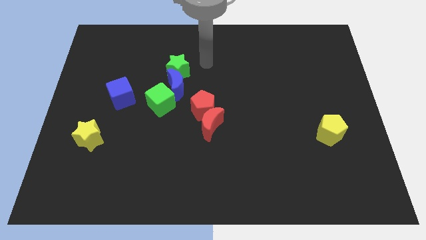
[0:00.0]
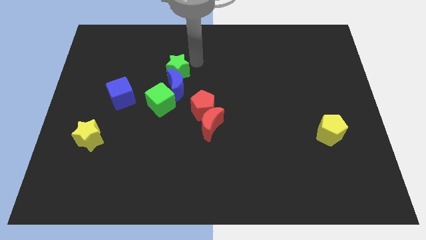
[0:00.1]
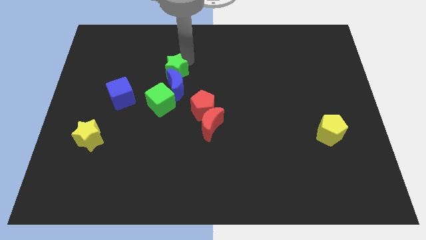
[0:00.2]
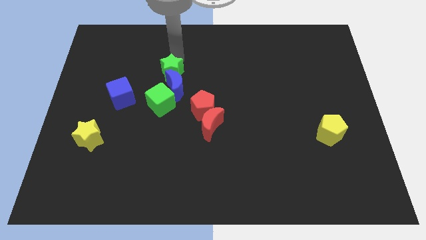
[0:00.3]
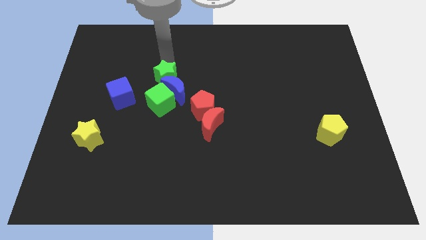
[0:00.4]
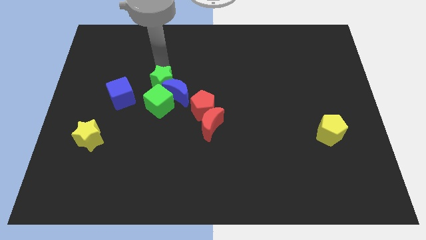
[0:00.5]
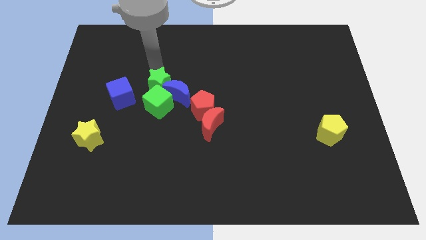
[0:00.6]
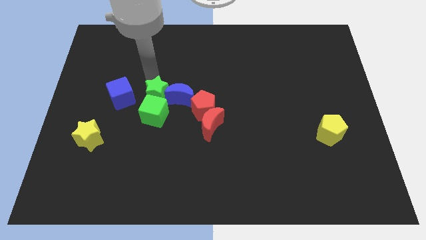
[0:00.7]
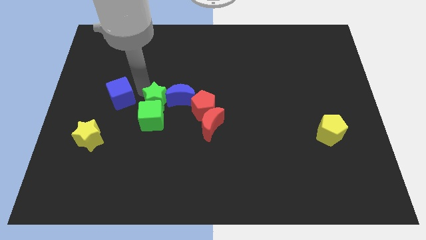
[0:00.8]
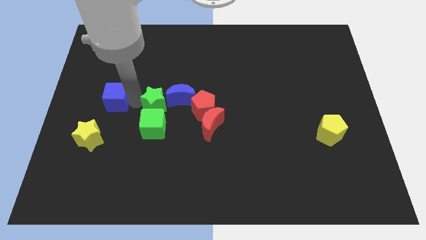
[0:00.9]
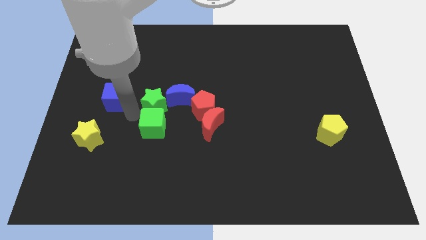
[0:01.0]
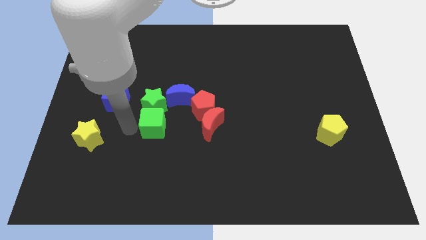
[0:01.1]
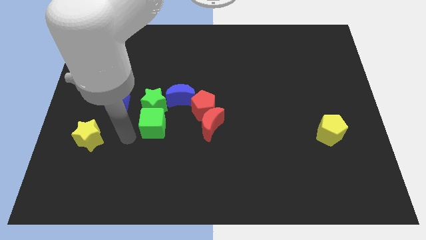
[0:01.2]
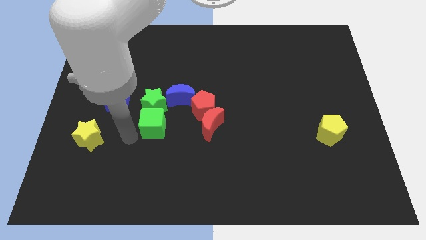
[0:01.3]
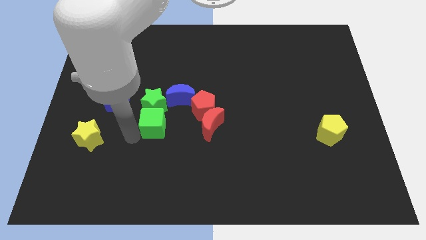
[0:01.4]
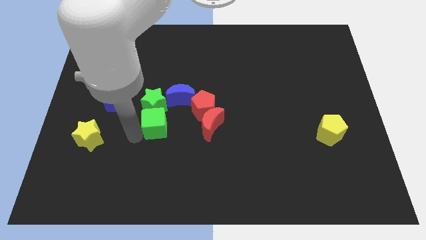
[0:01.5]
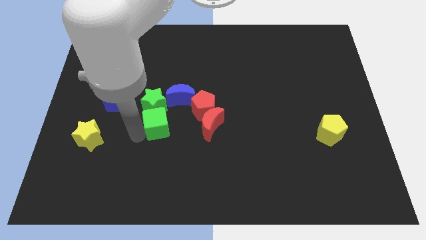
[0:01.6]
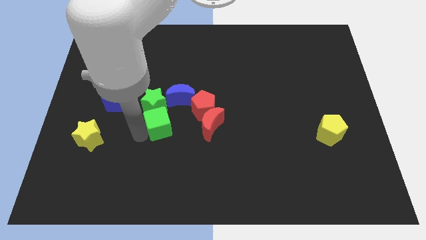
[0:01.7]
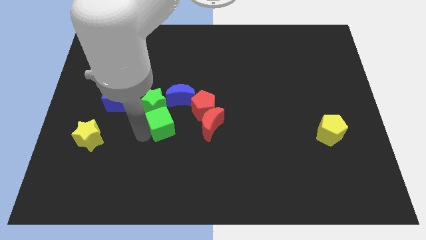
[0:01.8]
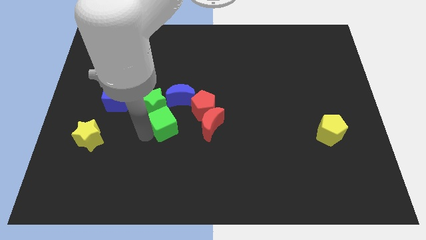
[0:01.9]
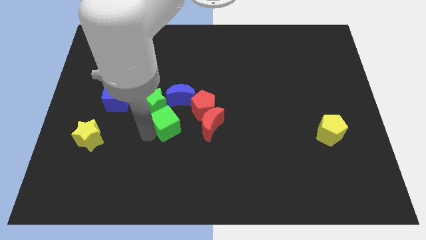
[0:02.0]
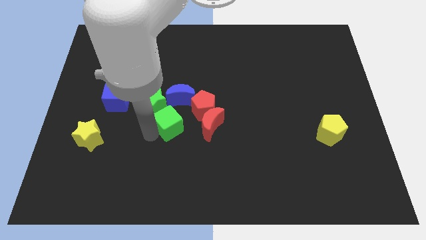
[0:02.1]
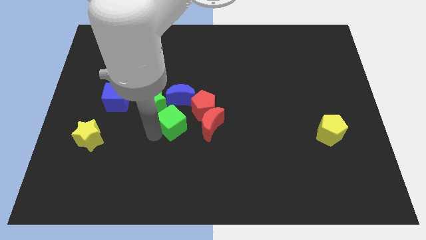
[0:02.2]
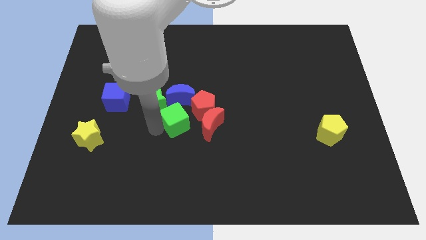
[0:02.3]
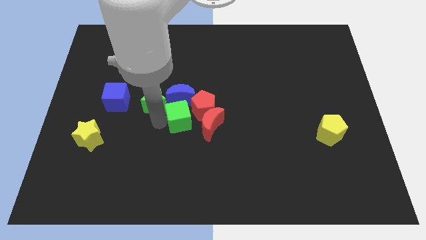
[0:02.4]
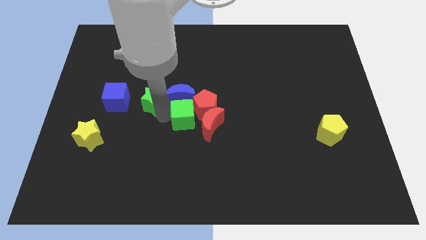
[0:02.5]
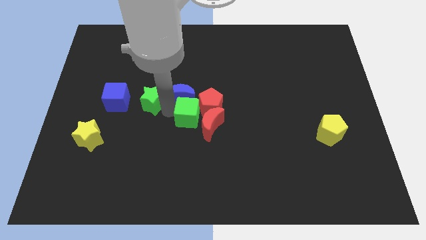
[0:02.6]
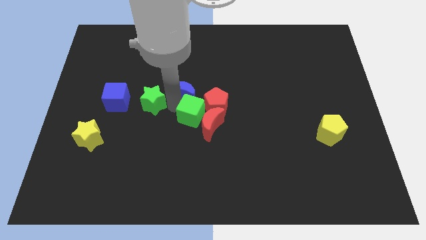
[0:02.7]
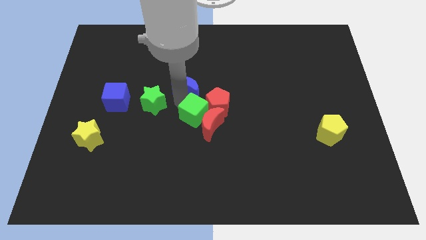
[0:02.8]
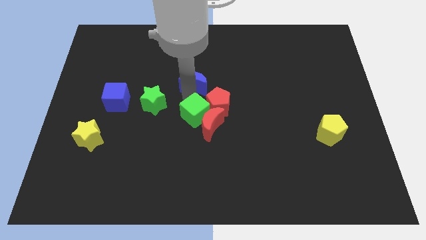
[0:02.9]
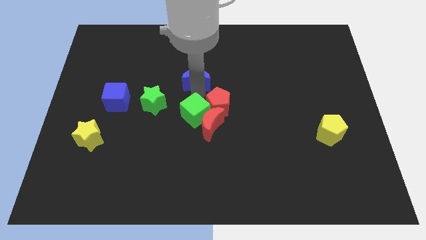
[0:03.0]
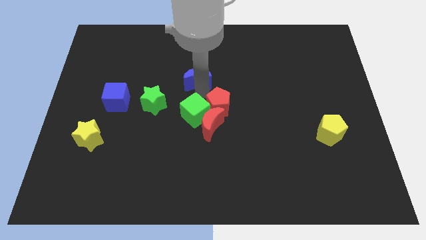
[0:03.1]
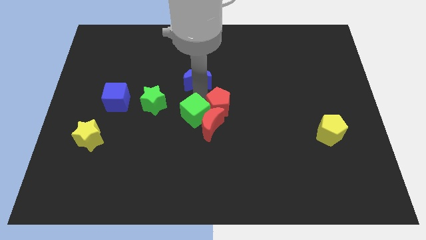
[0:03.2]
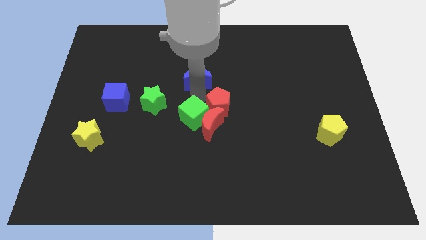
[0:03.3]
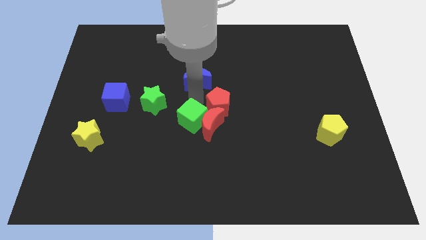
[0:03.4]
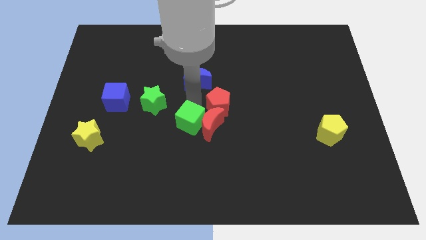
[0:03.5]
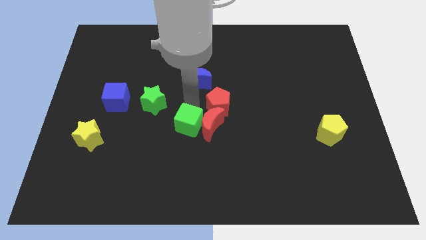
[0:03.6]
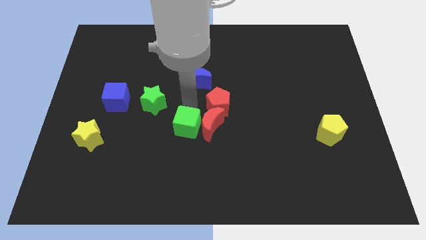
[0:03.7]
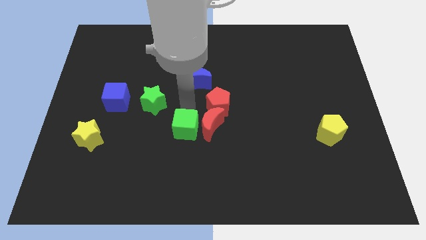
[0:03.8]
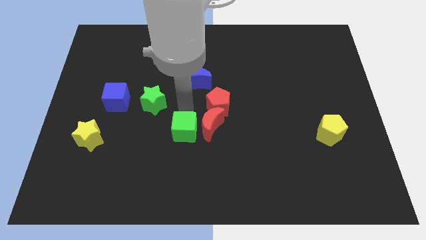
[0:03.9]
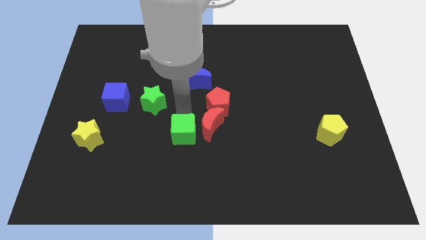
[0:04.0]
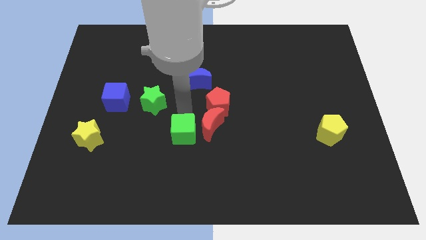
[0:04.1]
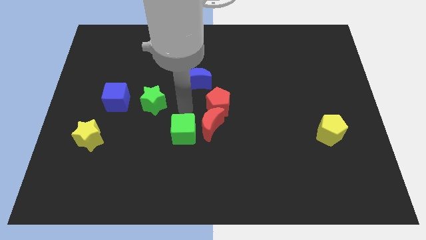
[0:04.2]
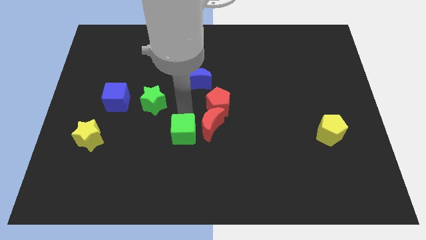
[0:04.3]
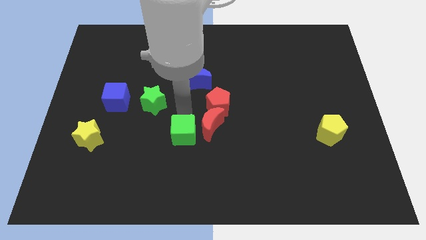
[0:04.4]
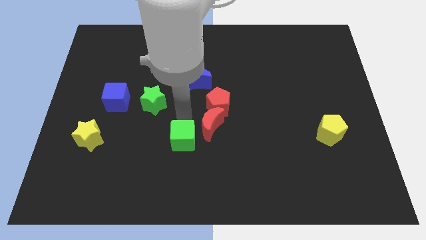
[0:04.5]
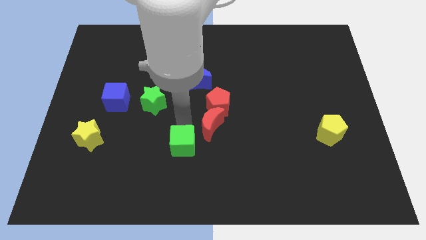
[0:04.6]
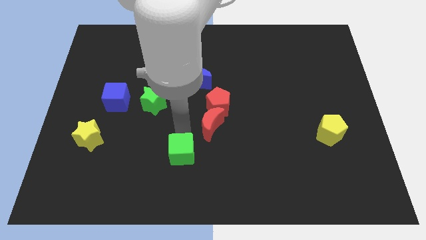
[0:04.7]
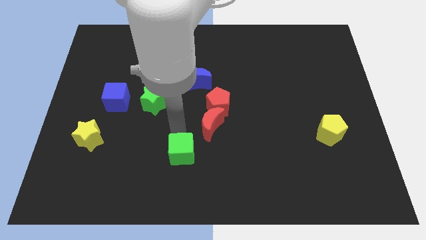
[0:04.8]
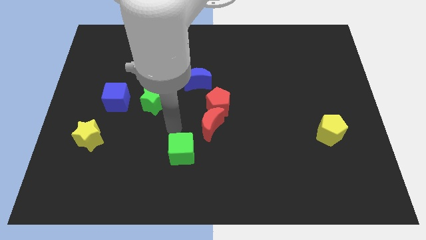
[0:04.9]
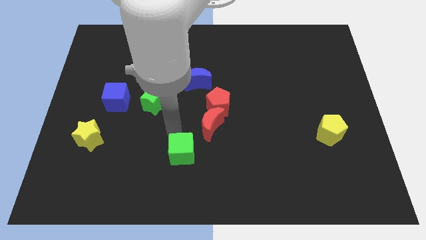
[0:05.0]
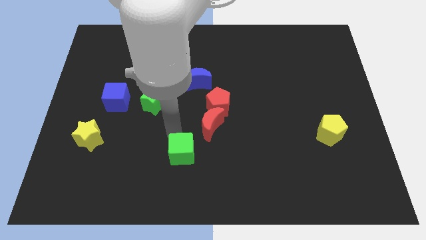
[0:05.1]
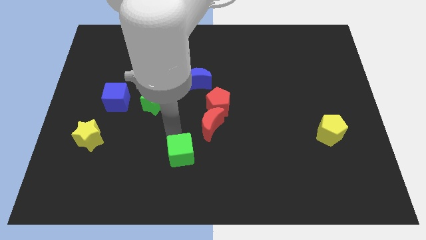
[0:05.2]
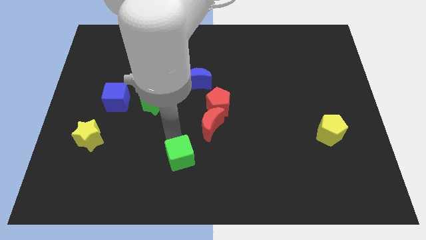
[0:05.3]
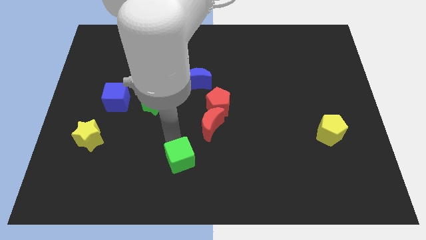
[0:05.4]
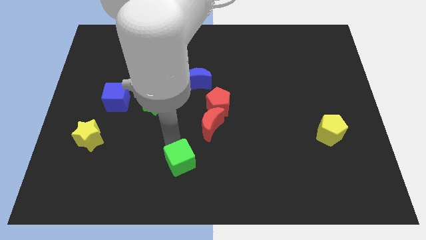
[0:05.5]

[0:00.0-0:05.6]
slide the green cube to the bottom side

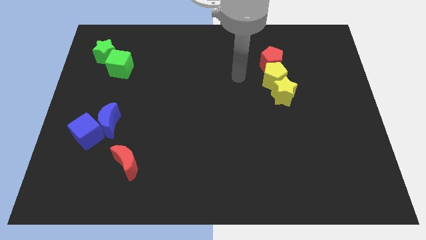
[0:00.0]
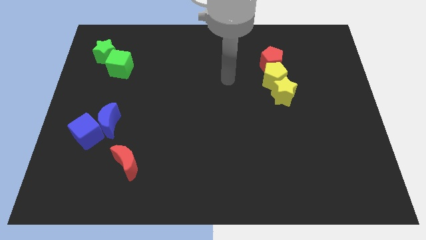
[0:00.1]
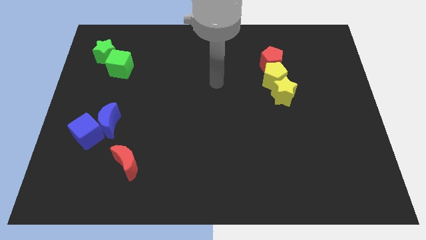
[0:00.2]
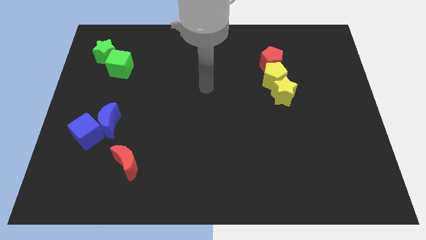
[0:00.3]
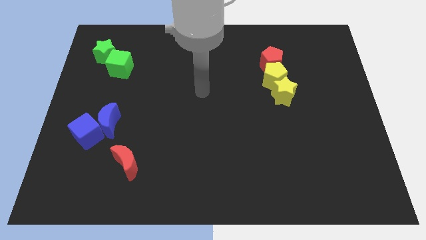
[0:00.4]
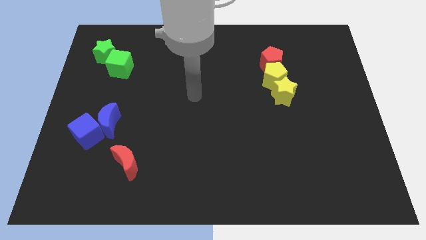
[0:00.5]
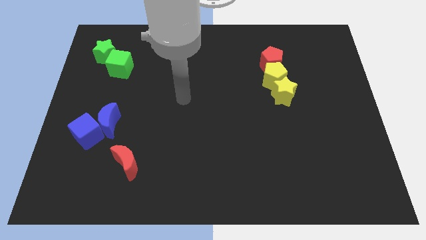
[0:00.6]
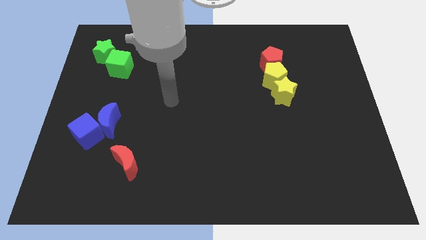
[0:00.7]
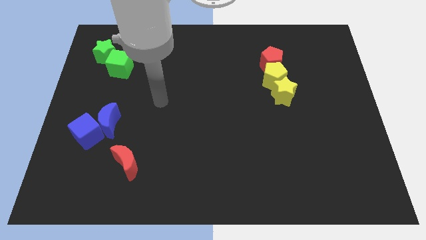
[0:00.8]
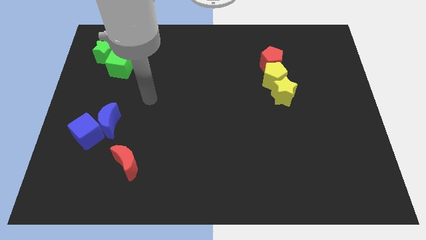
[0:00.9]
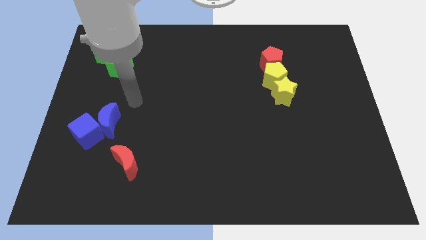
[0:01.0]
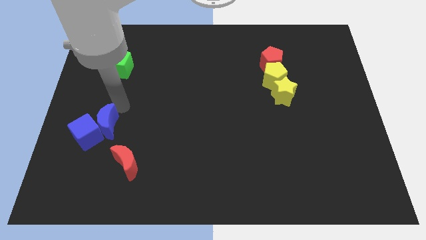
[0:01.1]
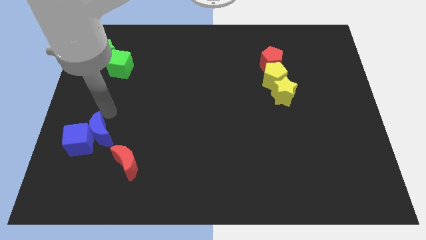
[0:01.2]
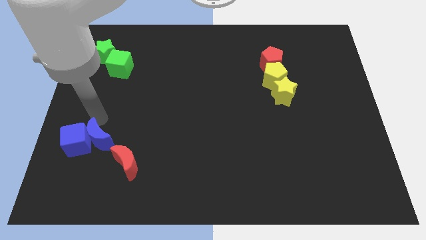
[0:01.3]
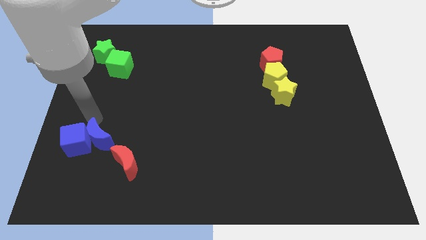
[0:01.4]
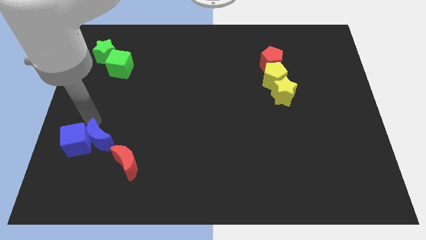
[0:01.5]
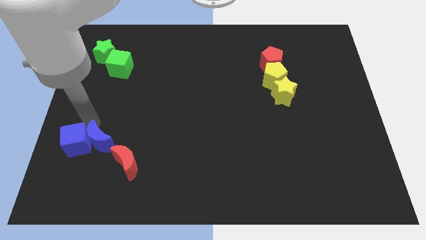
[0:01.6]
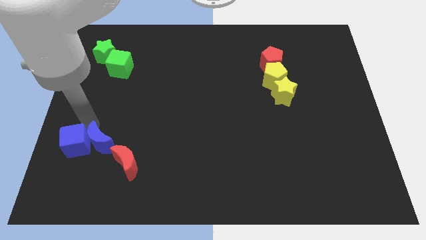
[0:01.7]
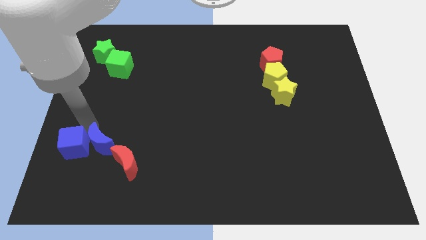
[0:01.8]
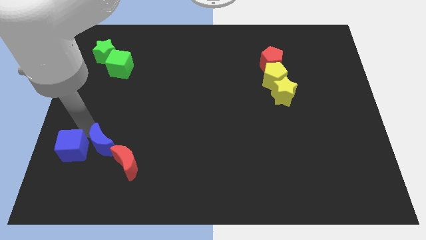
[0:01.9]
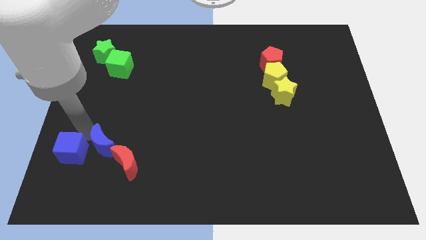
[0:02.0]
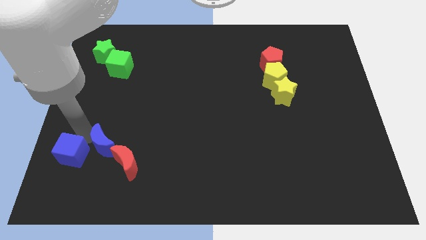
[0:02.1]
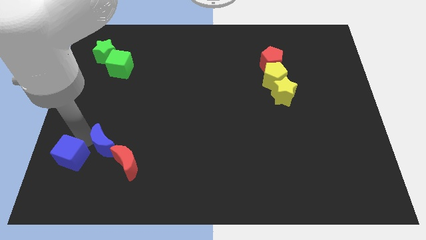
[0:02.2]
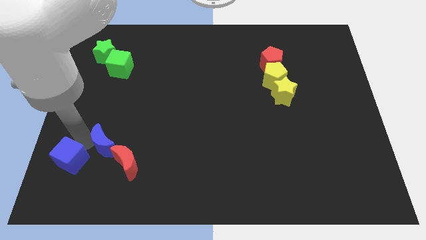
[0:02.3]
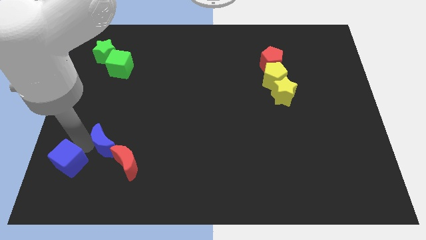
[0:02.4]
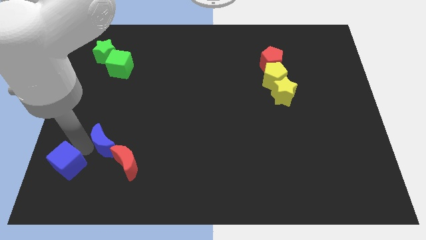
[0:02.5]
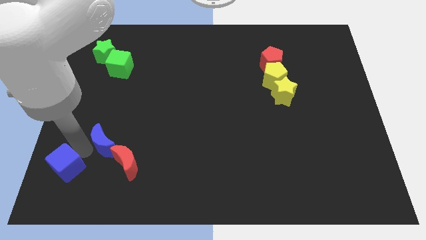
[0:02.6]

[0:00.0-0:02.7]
push the blue cube to the bottom left corner
